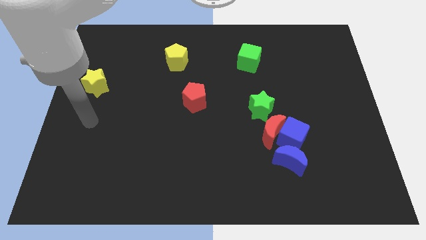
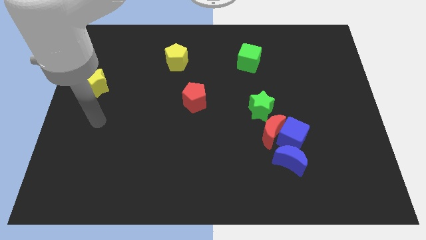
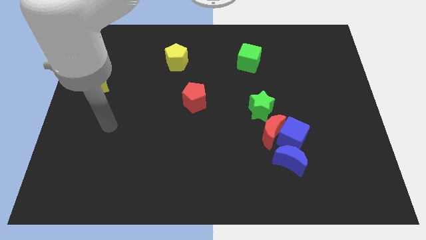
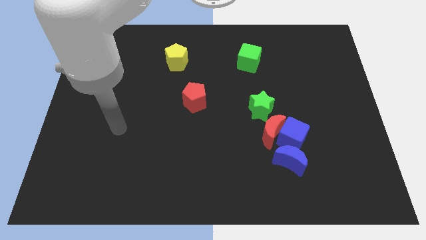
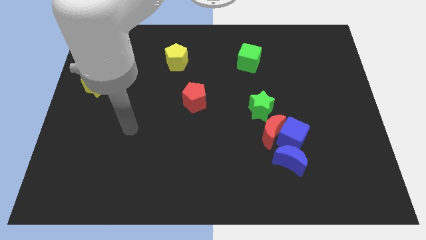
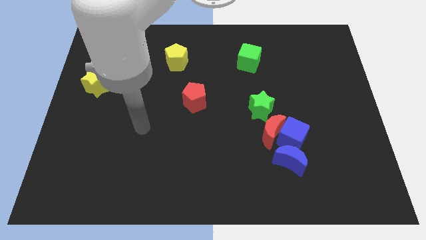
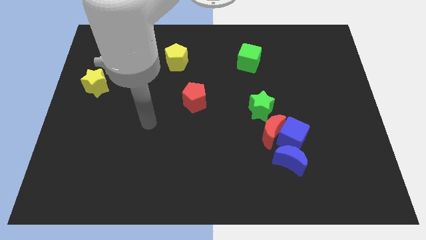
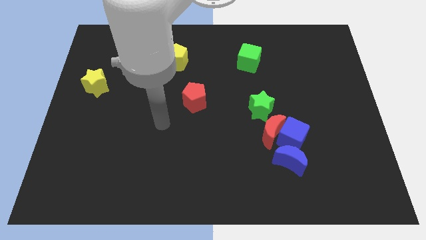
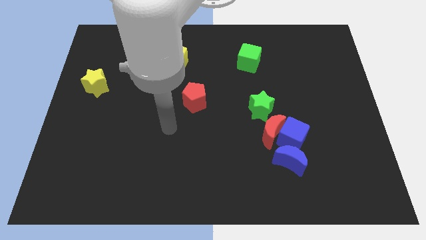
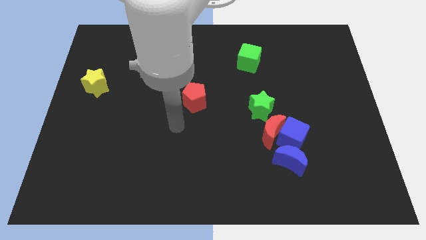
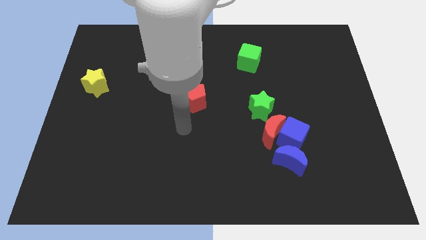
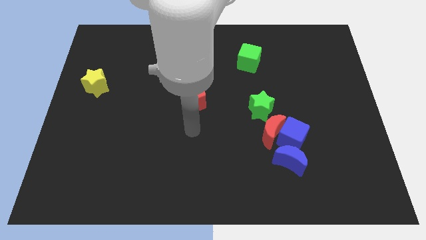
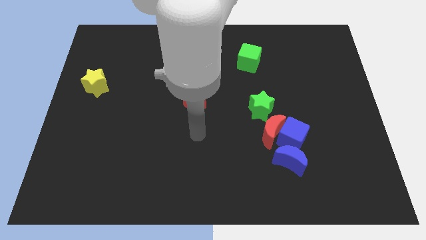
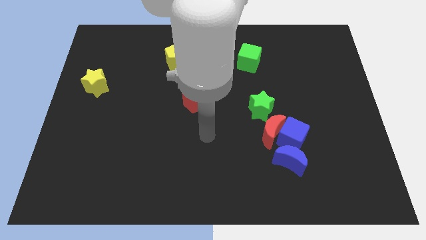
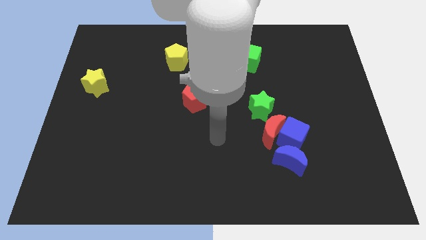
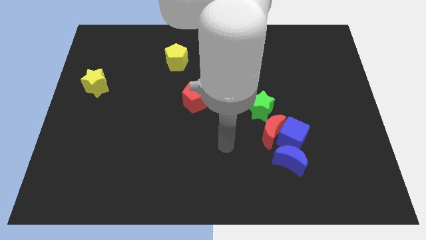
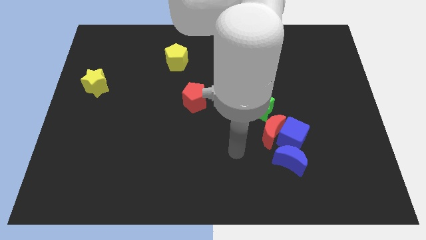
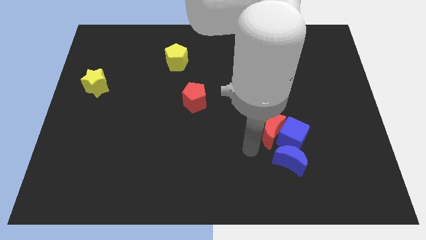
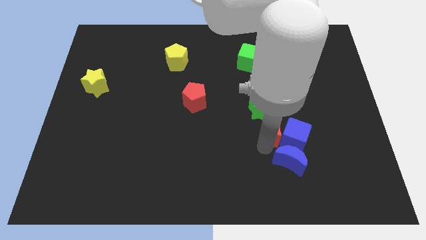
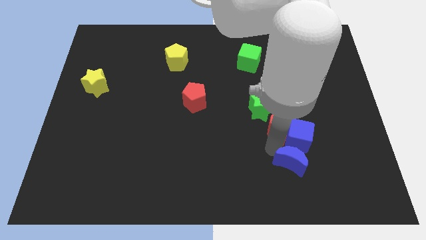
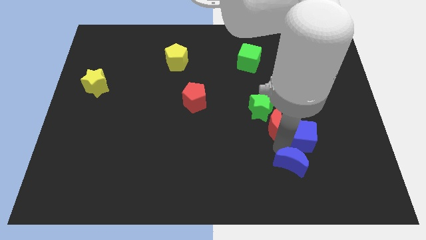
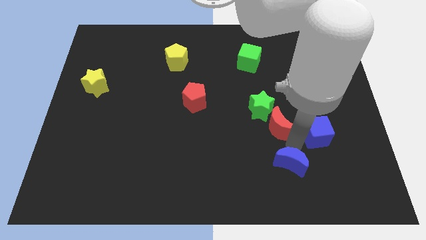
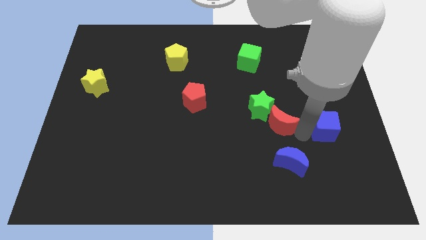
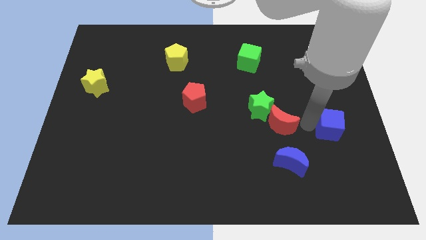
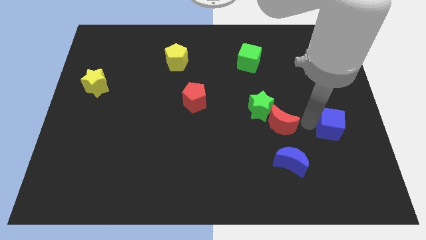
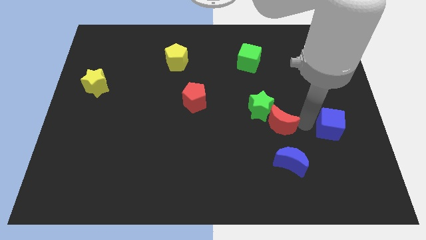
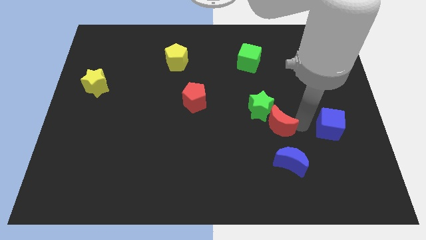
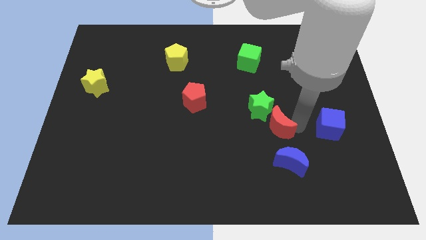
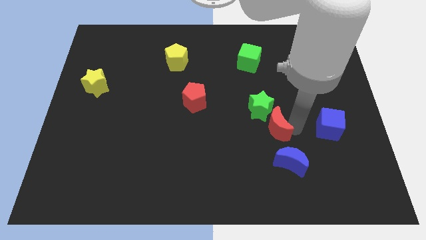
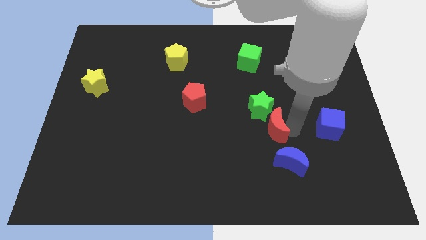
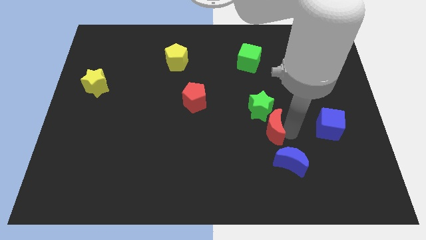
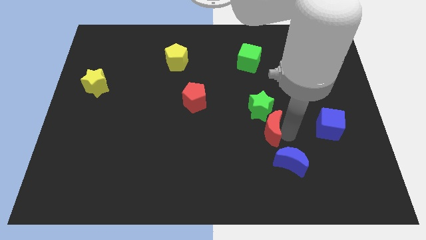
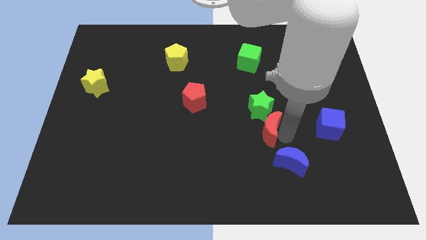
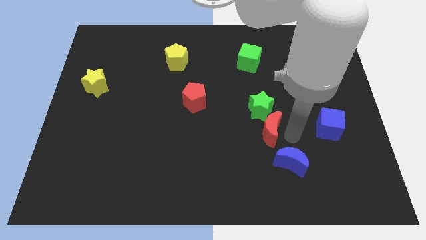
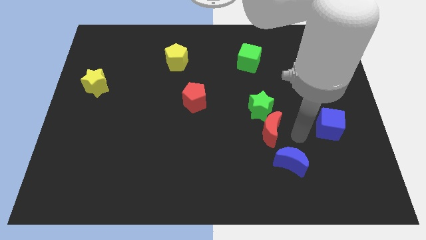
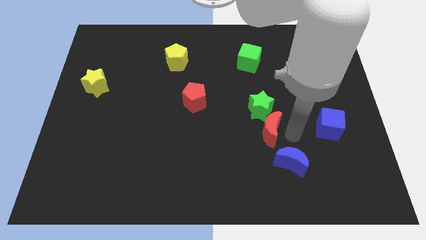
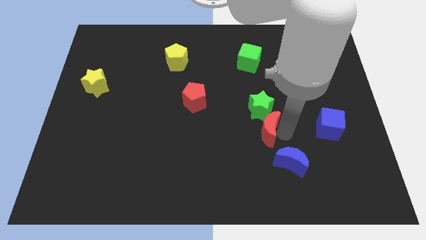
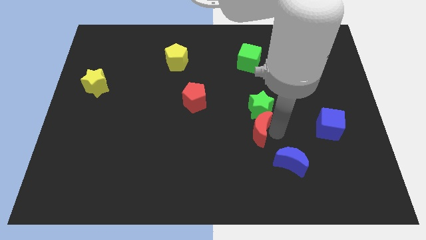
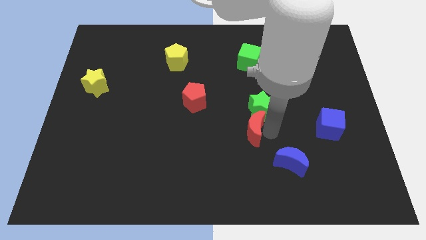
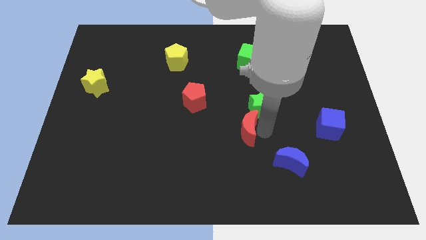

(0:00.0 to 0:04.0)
pull the red moon apart from the blue cube, green star, and blue moon

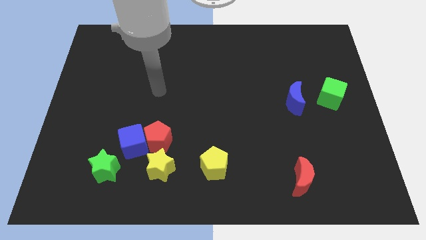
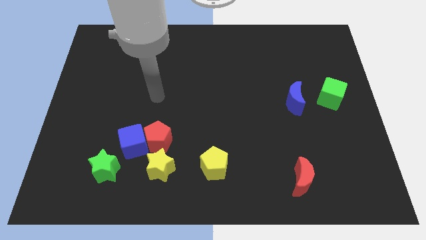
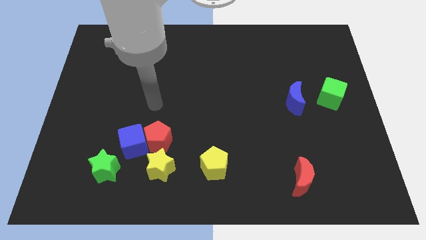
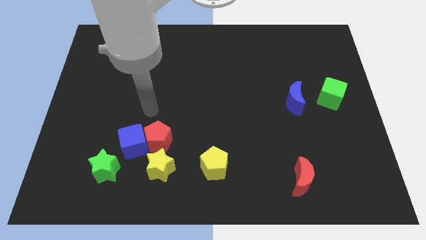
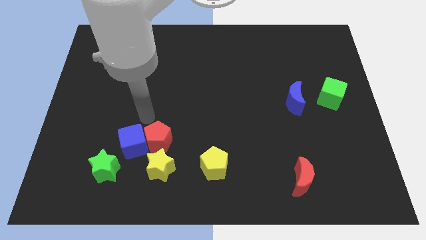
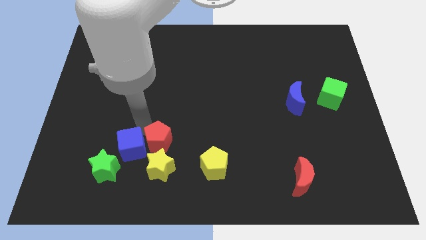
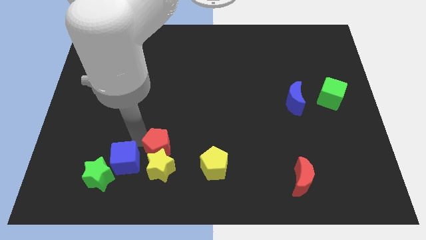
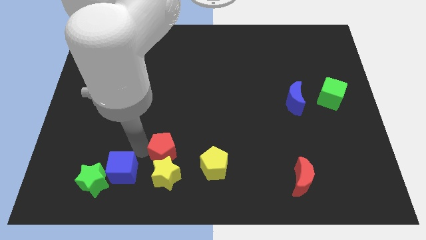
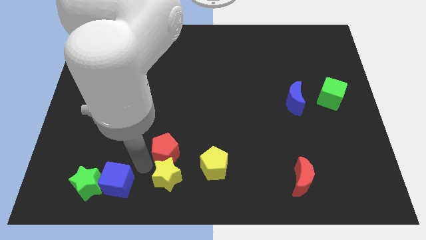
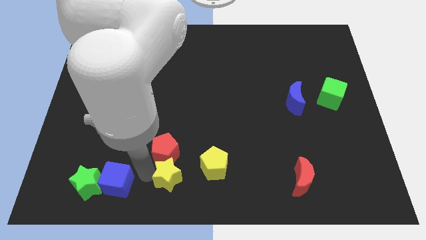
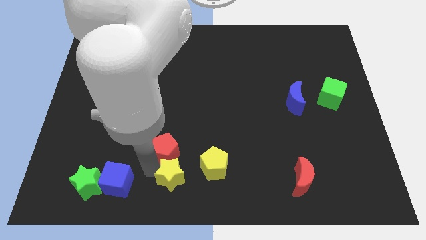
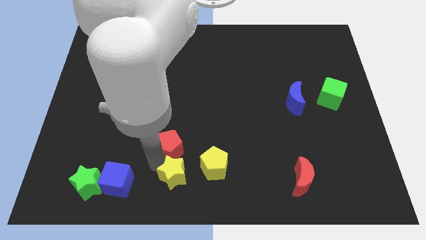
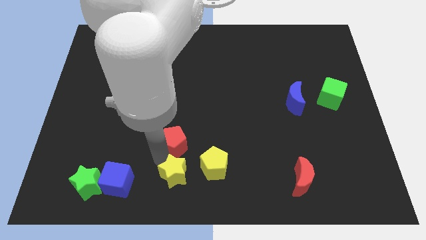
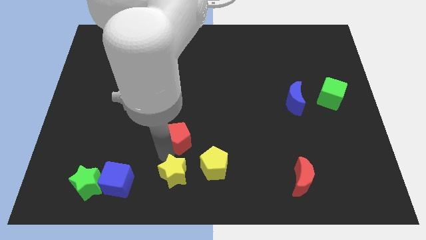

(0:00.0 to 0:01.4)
separate the red pentagon from the blue cube and yellow star

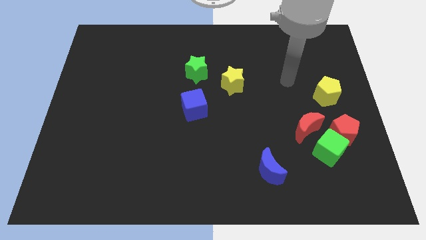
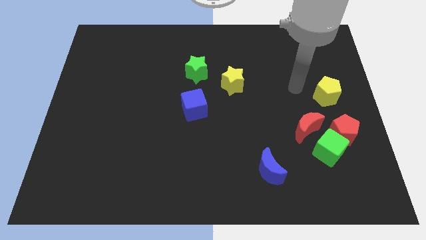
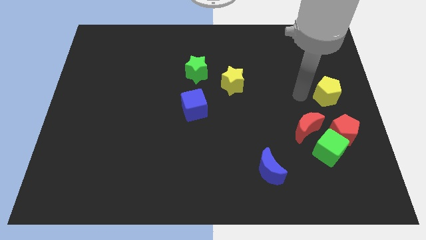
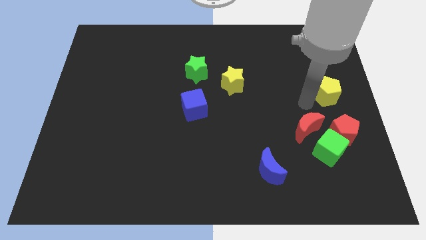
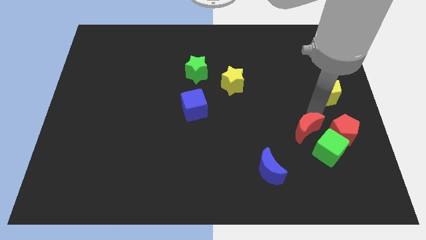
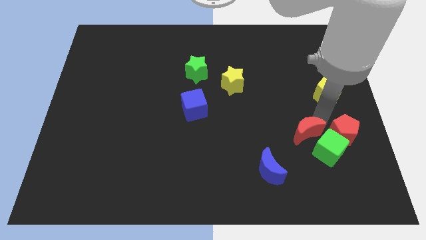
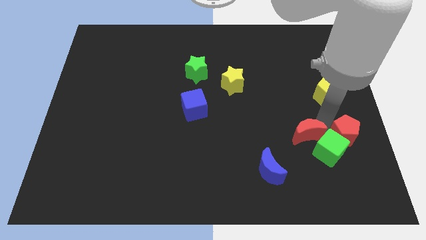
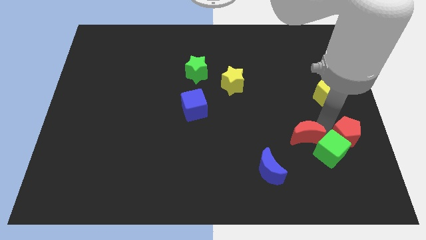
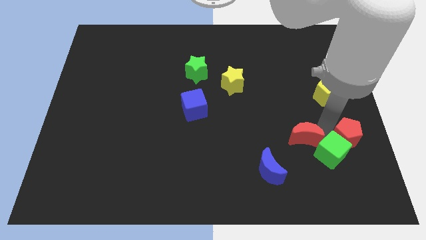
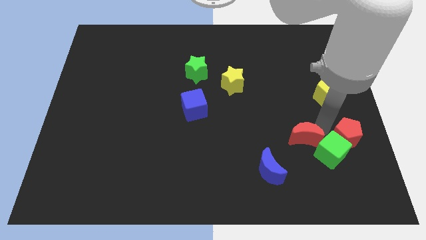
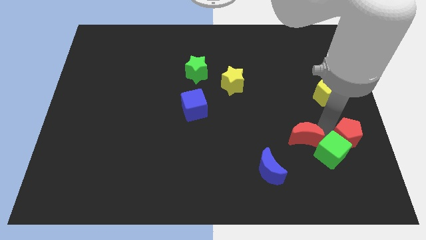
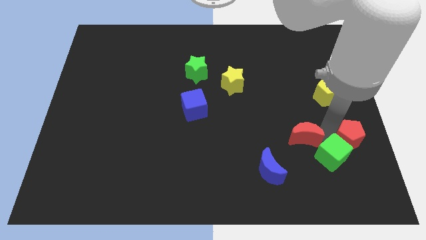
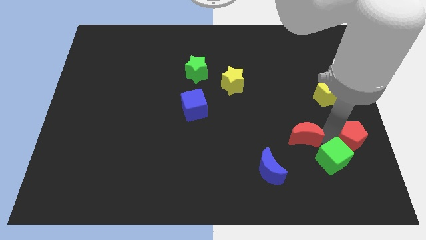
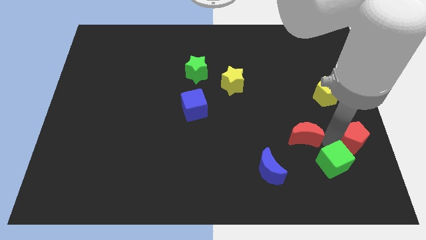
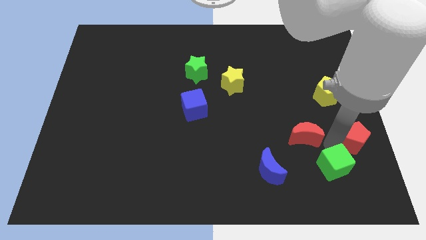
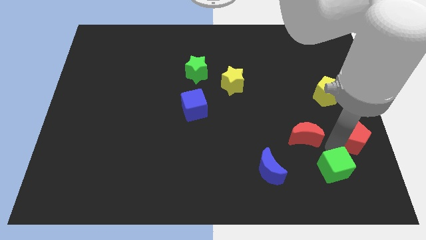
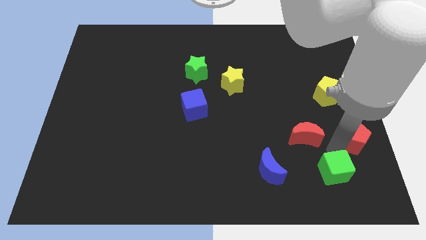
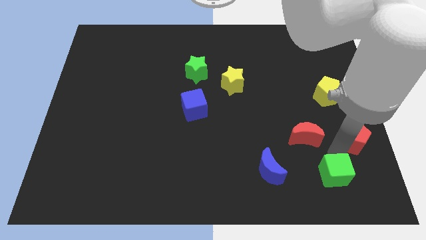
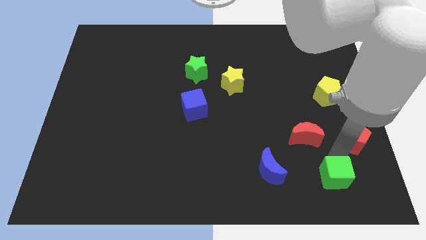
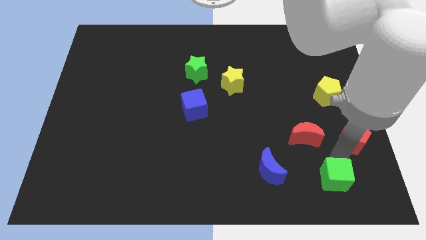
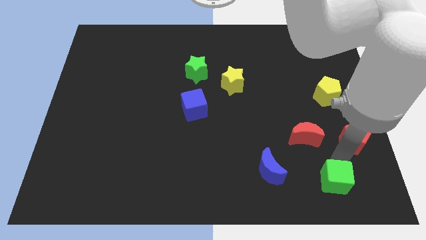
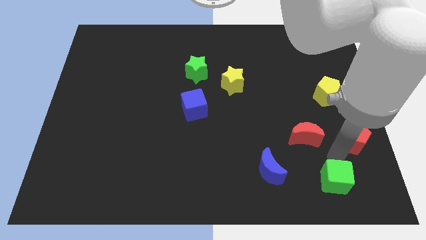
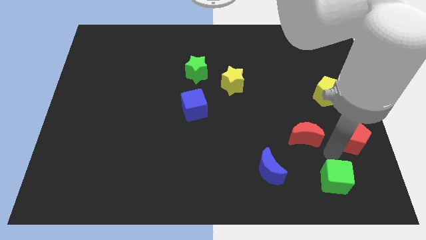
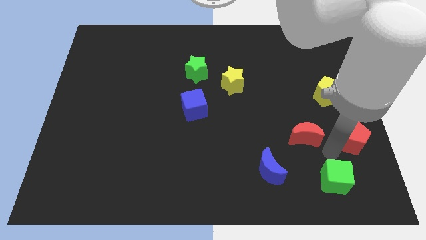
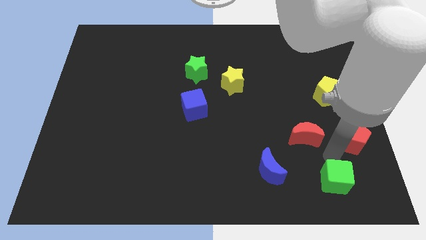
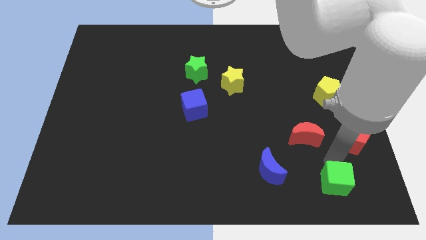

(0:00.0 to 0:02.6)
move the green cube away from the red pentagon and red moon

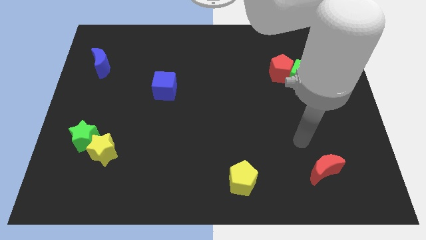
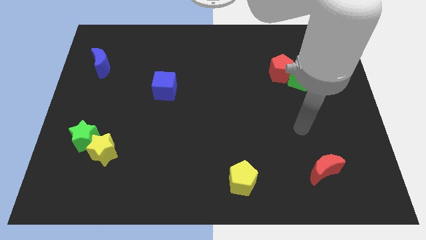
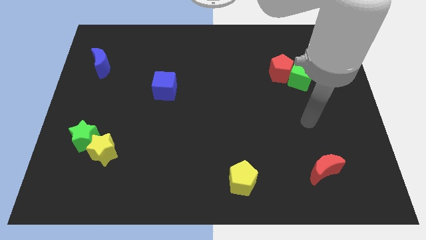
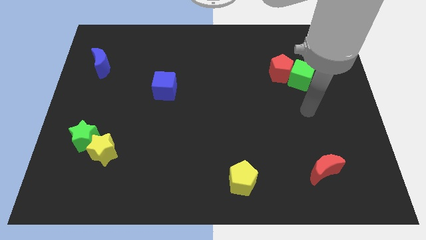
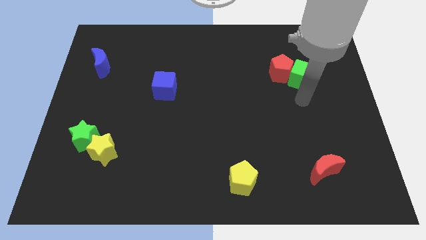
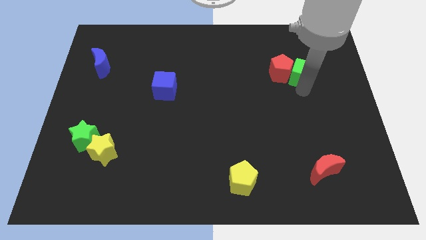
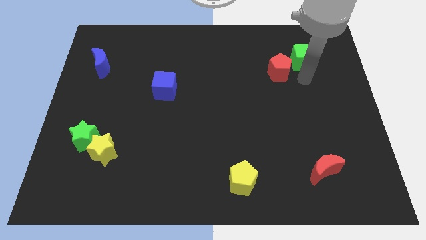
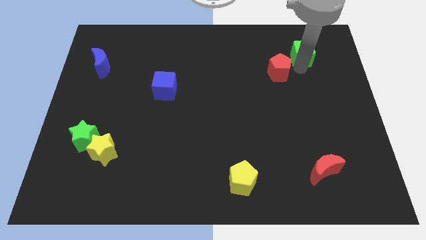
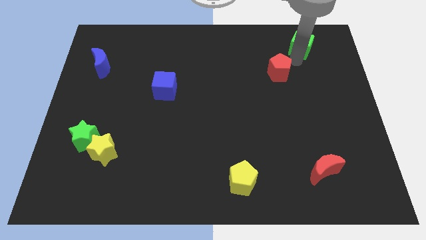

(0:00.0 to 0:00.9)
pull the red pentagon apart from the green cube

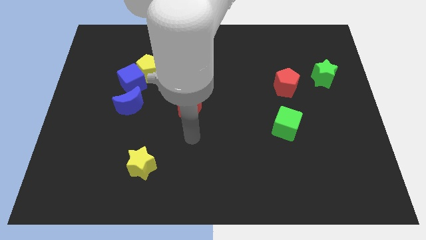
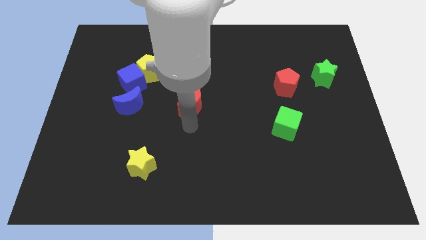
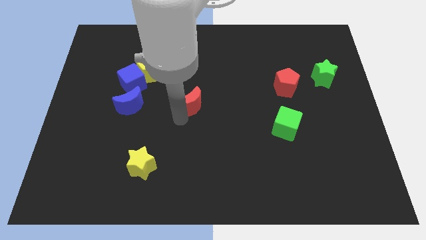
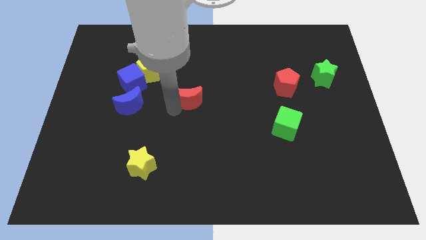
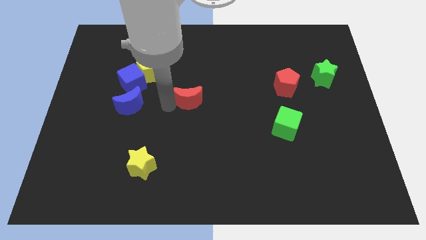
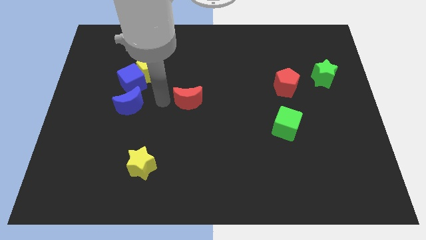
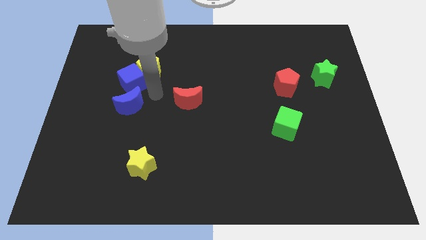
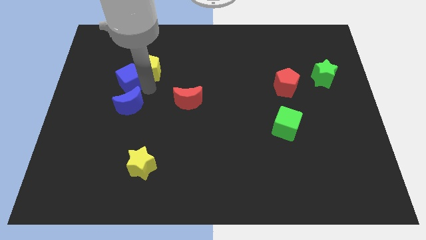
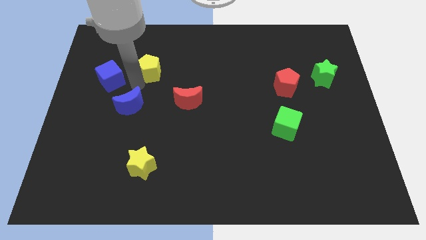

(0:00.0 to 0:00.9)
separate the yellow pentagon from the blue cube
